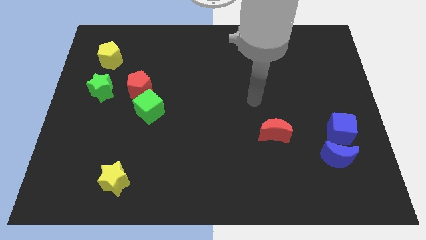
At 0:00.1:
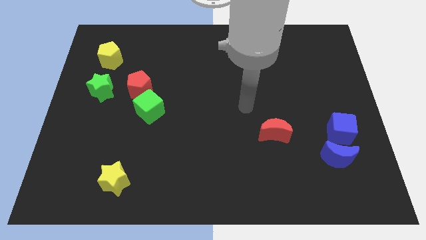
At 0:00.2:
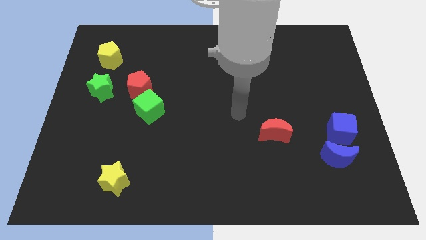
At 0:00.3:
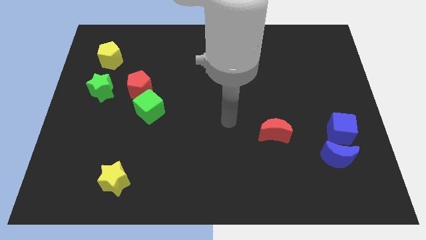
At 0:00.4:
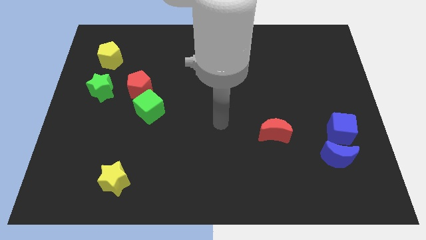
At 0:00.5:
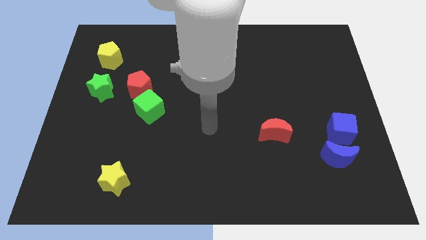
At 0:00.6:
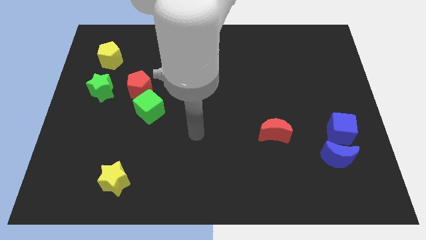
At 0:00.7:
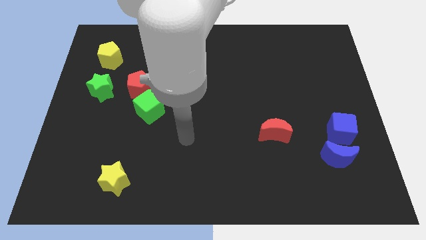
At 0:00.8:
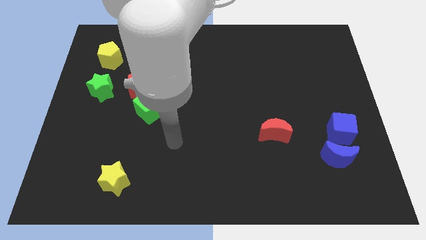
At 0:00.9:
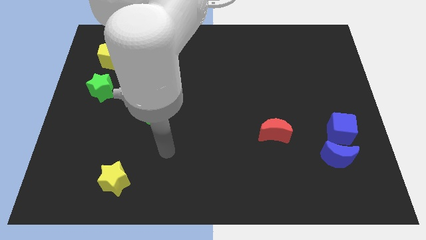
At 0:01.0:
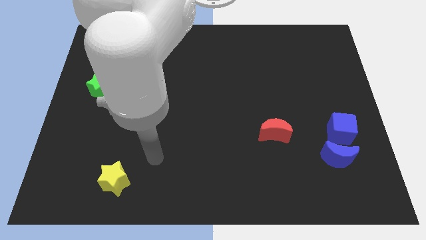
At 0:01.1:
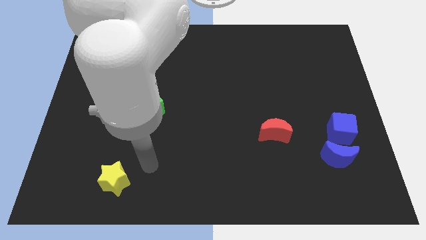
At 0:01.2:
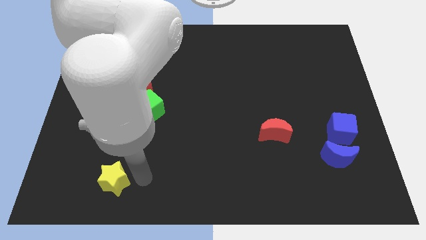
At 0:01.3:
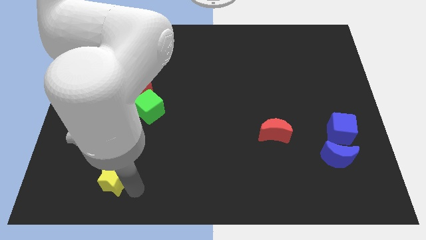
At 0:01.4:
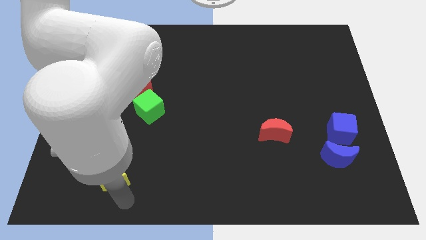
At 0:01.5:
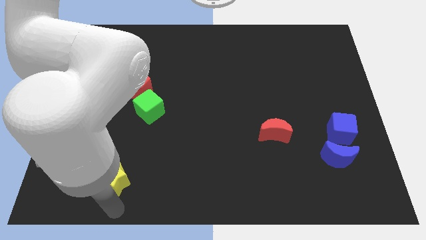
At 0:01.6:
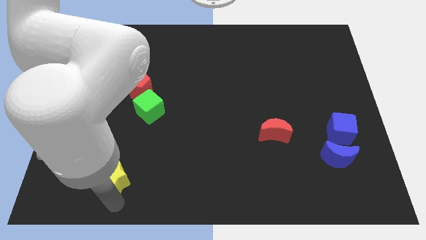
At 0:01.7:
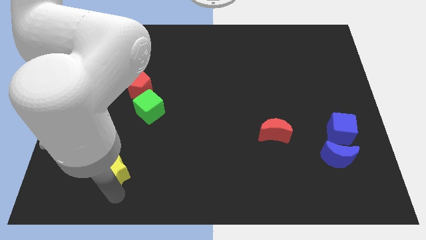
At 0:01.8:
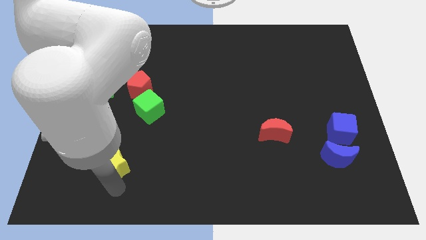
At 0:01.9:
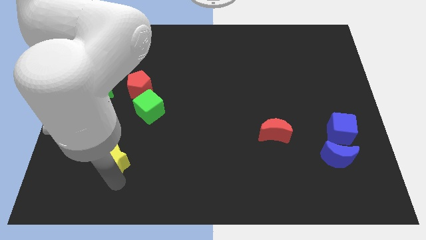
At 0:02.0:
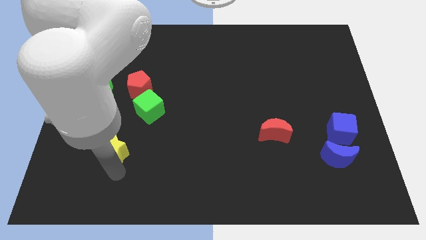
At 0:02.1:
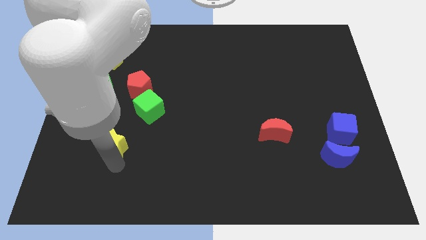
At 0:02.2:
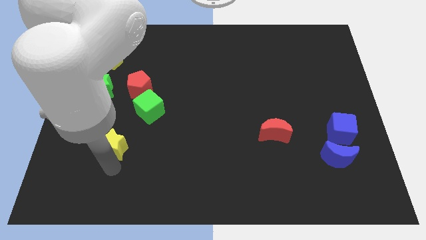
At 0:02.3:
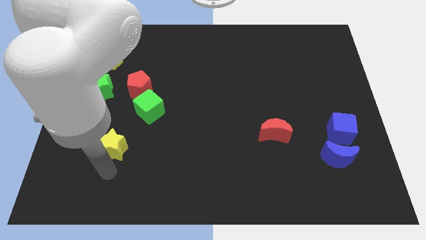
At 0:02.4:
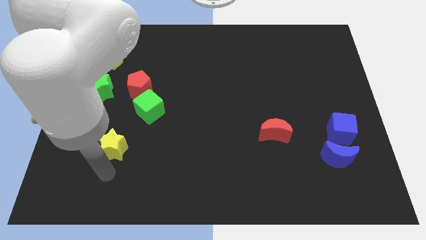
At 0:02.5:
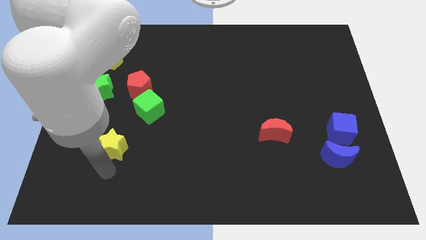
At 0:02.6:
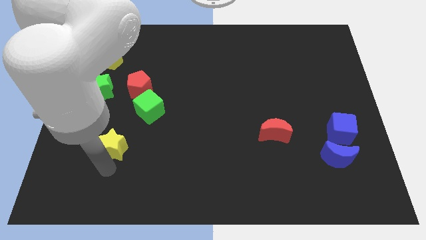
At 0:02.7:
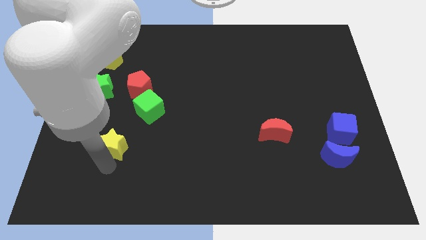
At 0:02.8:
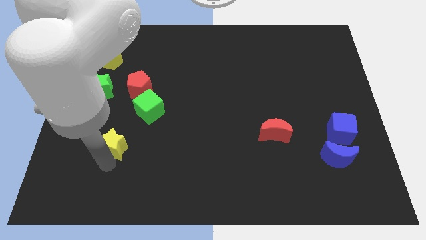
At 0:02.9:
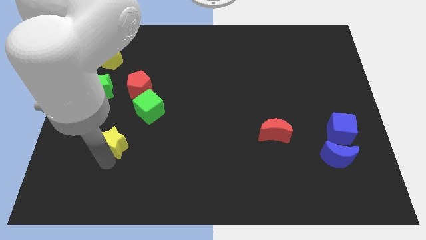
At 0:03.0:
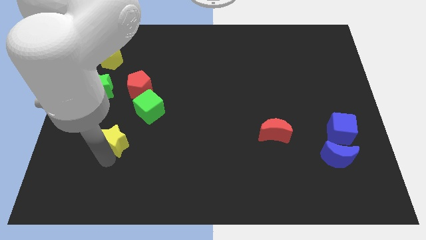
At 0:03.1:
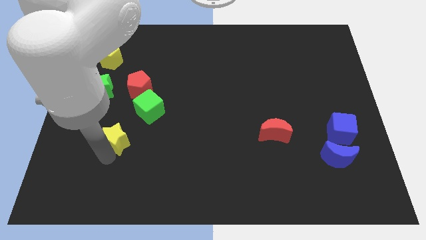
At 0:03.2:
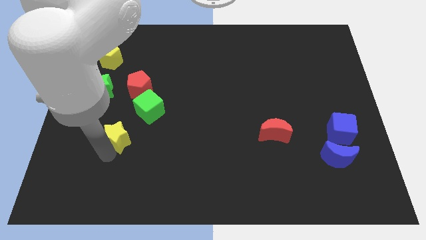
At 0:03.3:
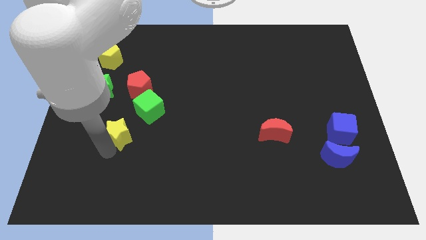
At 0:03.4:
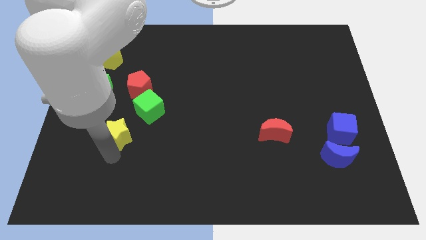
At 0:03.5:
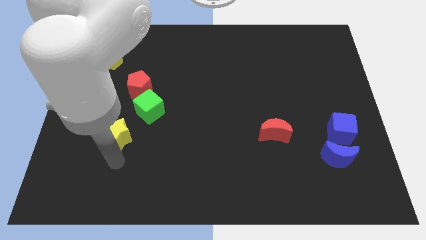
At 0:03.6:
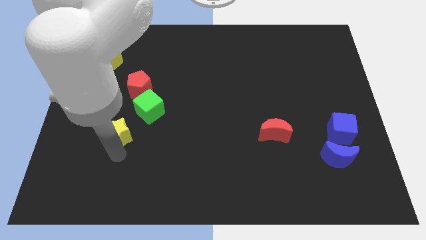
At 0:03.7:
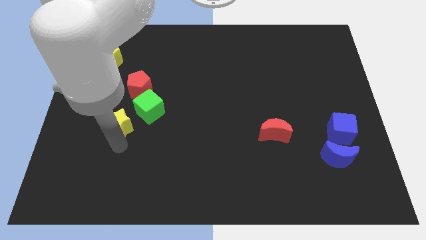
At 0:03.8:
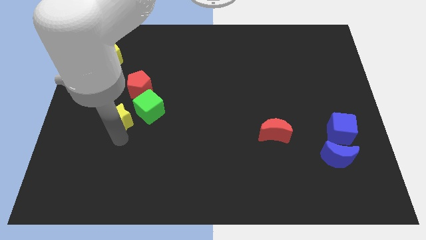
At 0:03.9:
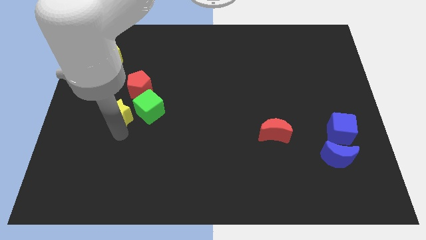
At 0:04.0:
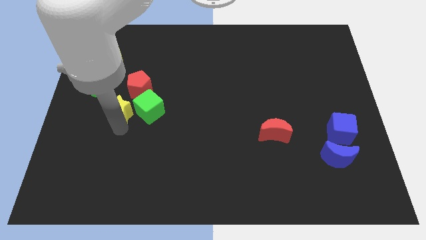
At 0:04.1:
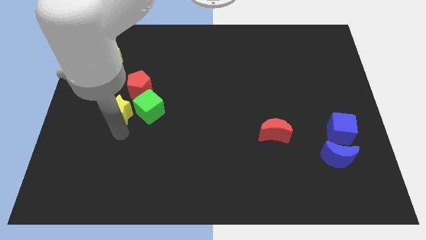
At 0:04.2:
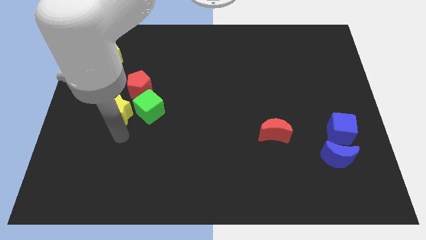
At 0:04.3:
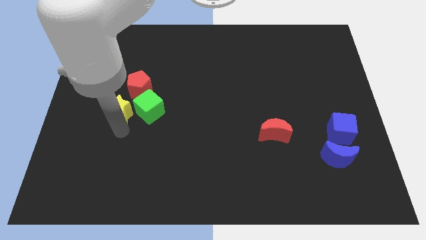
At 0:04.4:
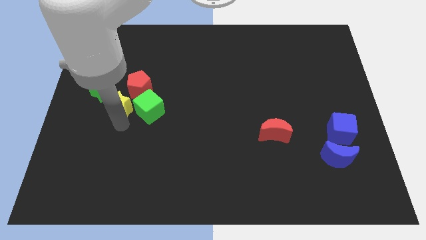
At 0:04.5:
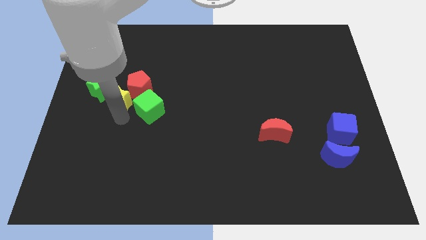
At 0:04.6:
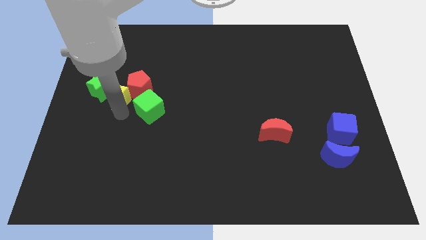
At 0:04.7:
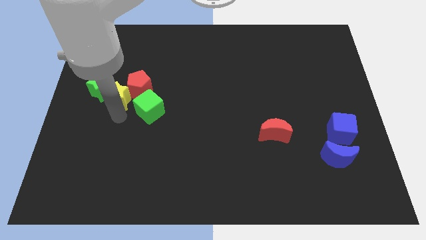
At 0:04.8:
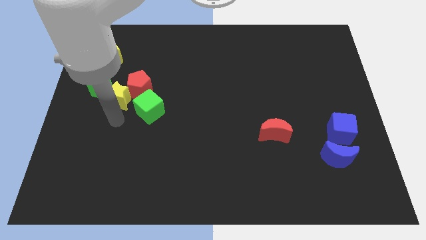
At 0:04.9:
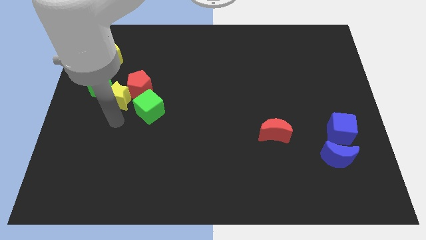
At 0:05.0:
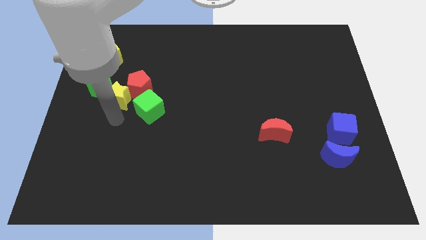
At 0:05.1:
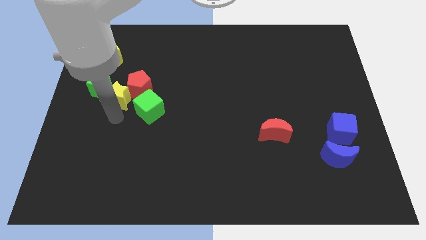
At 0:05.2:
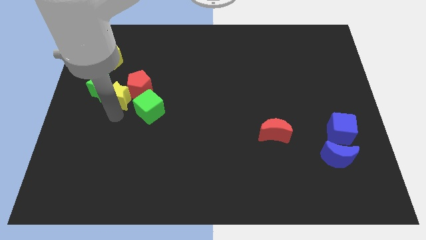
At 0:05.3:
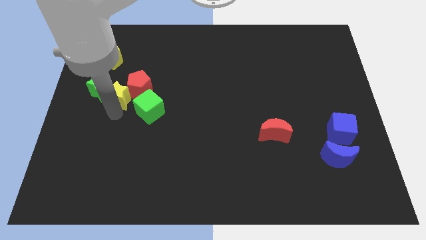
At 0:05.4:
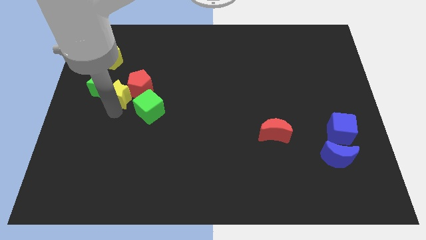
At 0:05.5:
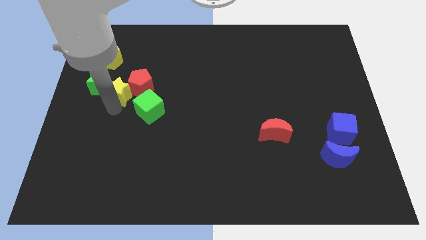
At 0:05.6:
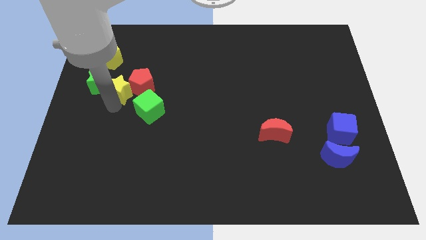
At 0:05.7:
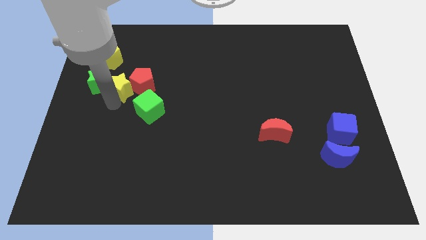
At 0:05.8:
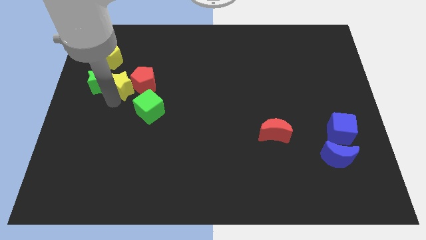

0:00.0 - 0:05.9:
slide the yellow star to the bottom right of the yellow pentagon
